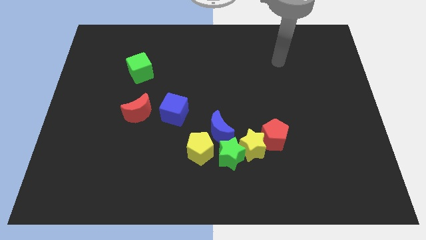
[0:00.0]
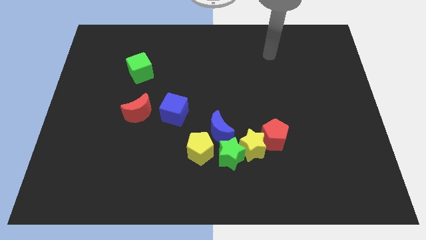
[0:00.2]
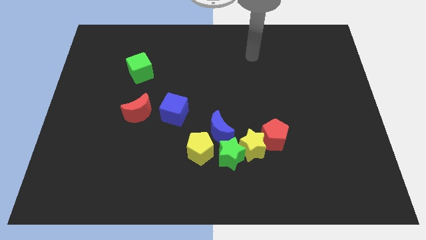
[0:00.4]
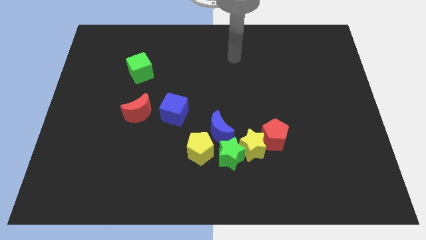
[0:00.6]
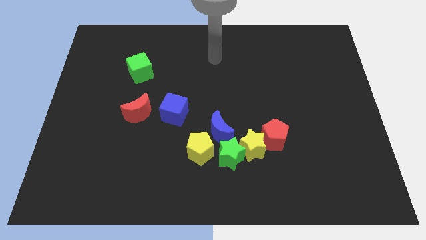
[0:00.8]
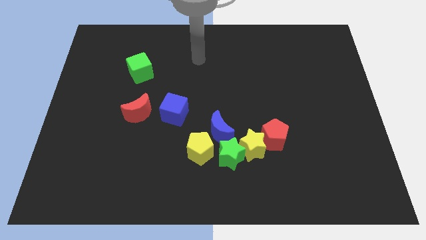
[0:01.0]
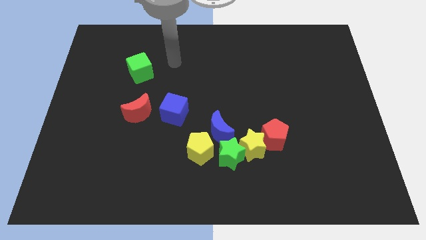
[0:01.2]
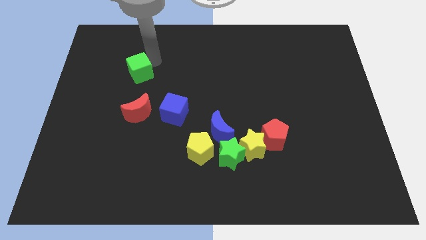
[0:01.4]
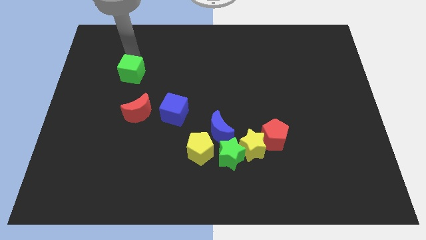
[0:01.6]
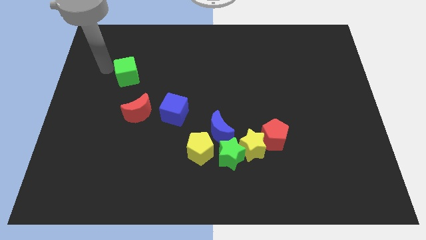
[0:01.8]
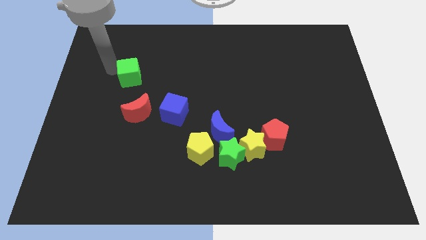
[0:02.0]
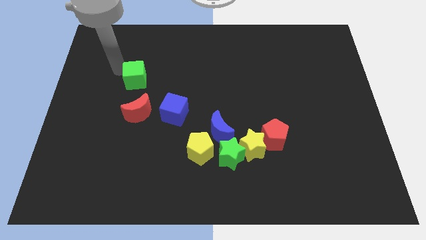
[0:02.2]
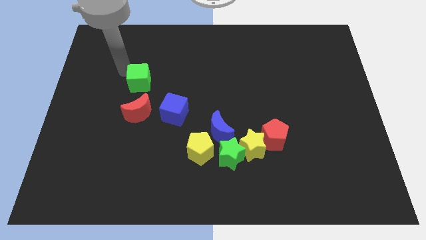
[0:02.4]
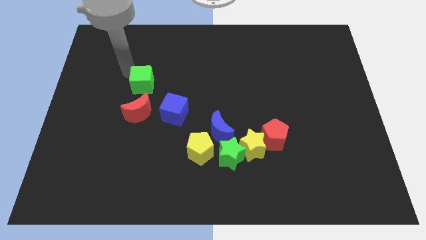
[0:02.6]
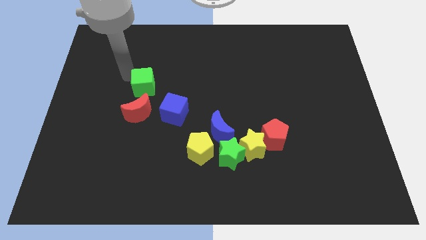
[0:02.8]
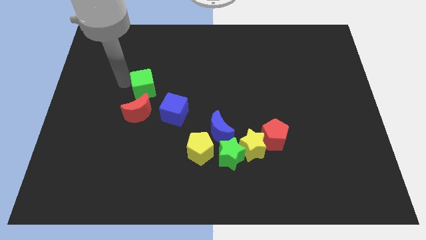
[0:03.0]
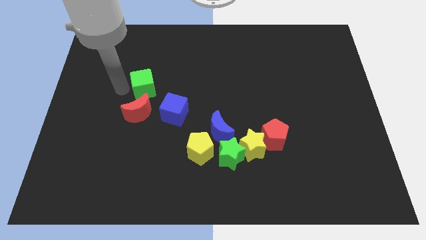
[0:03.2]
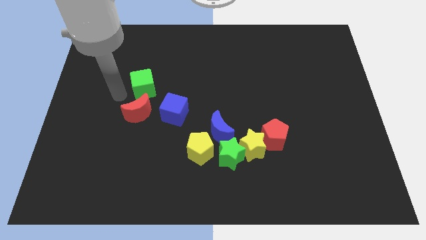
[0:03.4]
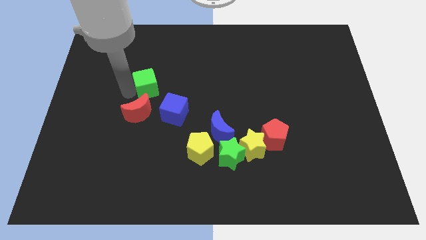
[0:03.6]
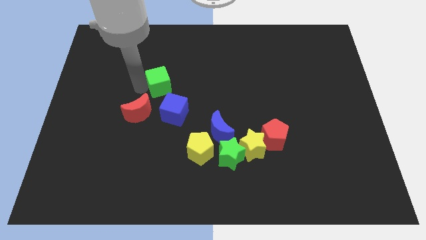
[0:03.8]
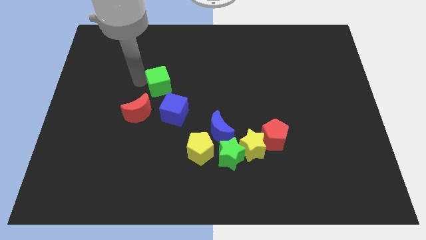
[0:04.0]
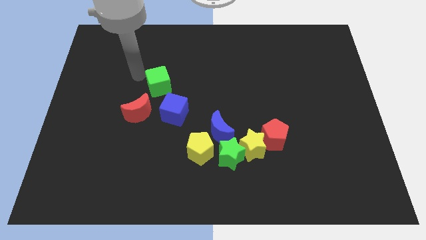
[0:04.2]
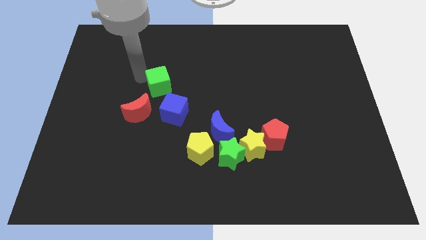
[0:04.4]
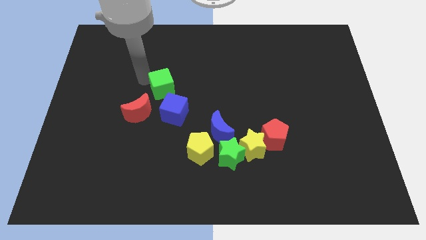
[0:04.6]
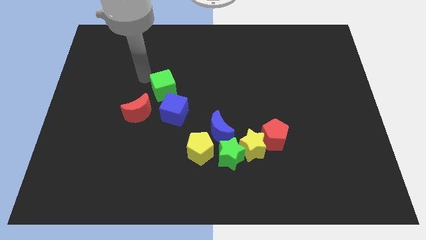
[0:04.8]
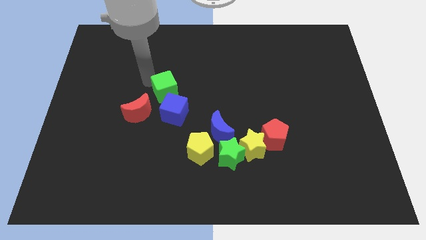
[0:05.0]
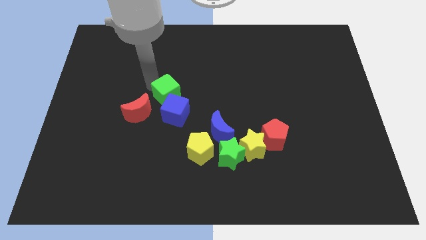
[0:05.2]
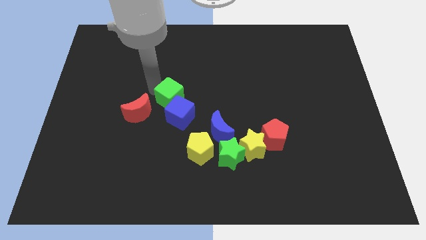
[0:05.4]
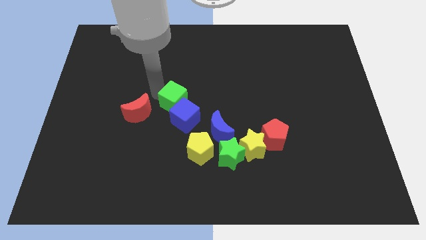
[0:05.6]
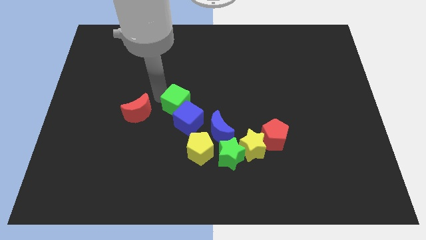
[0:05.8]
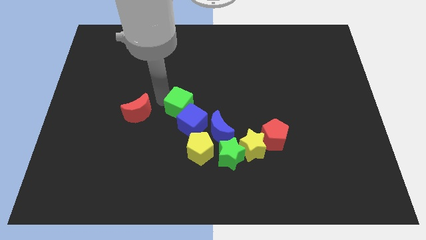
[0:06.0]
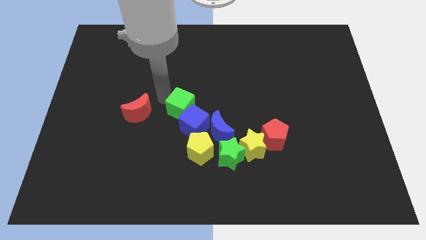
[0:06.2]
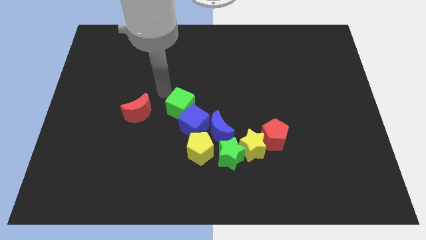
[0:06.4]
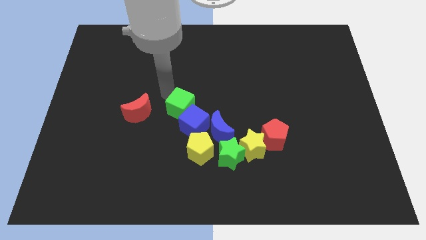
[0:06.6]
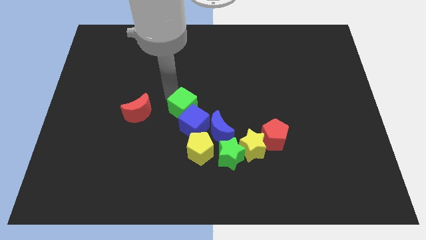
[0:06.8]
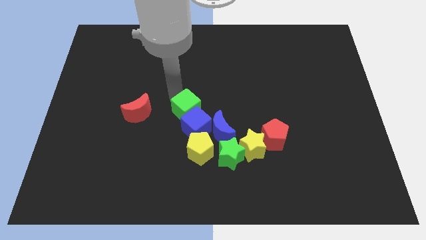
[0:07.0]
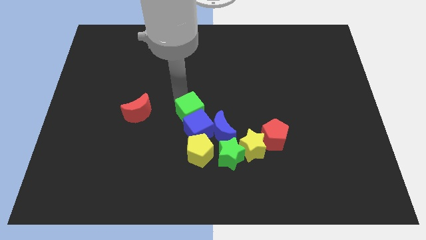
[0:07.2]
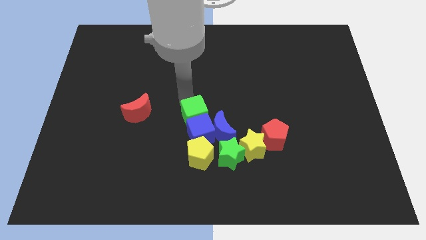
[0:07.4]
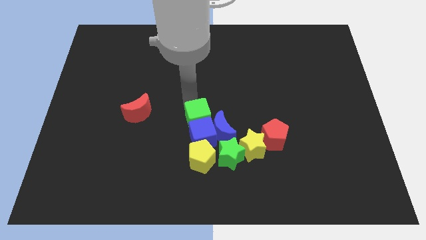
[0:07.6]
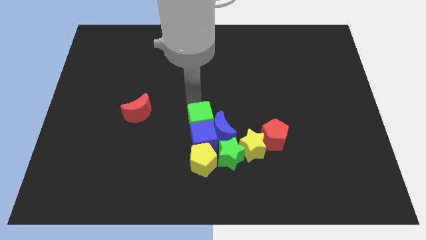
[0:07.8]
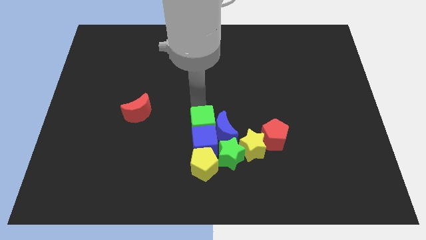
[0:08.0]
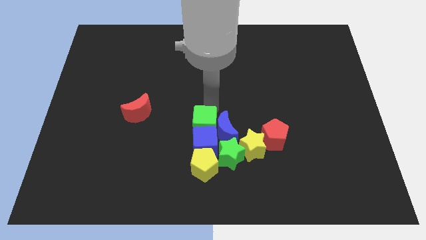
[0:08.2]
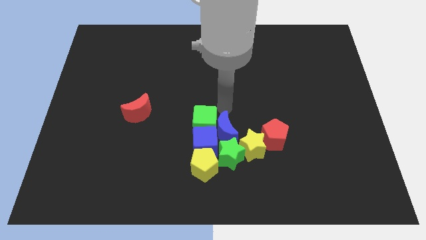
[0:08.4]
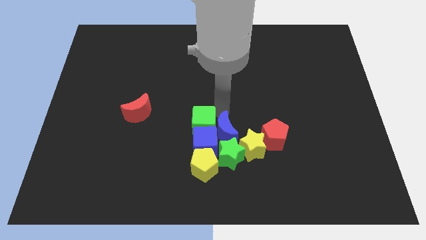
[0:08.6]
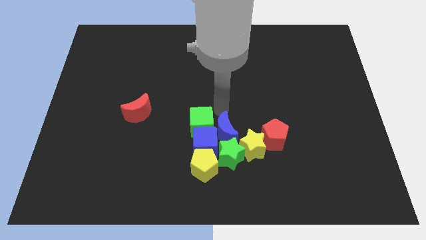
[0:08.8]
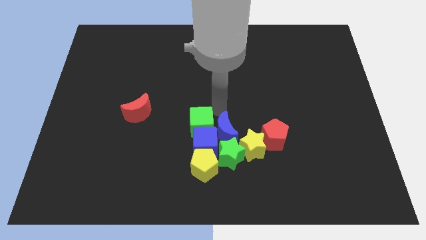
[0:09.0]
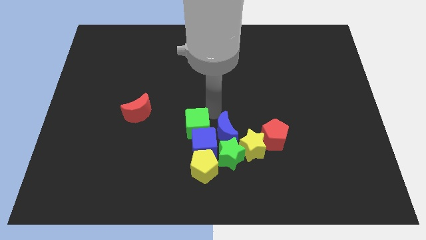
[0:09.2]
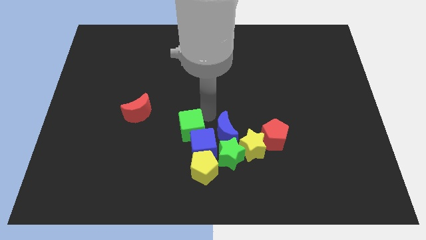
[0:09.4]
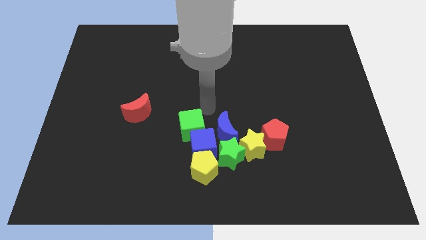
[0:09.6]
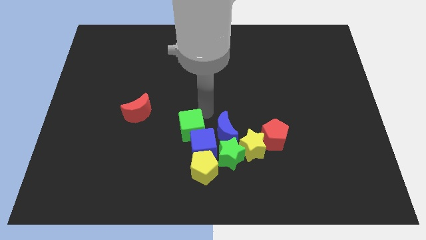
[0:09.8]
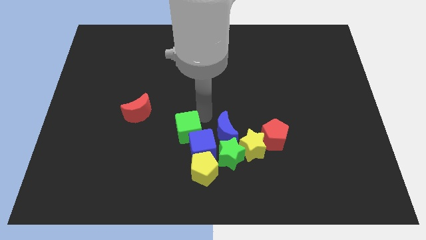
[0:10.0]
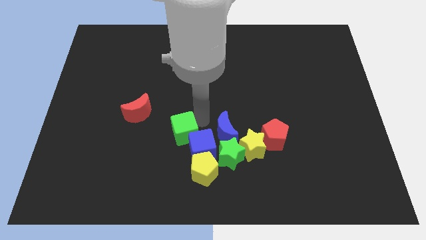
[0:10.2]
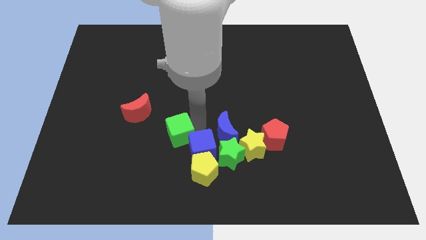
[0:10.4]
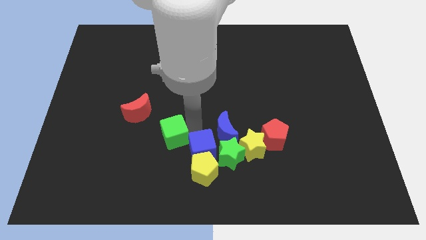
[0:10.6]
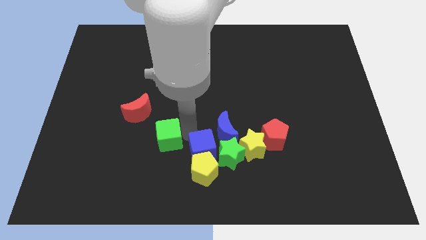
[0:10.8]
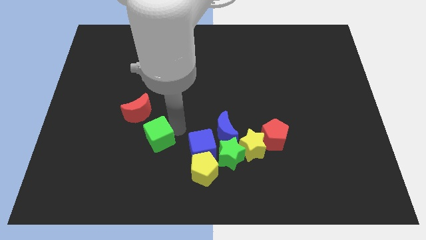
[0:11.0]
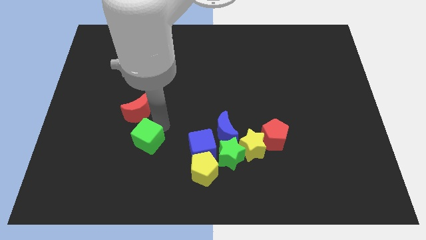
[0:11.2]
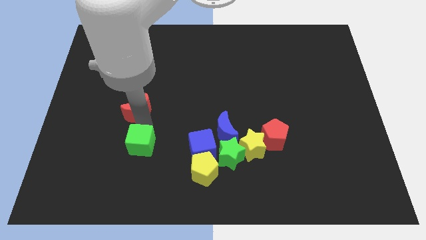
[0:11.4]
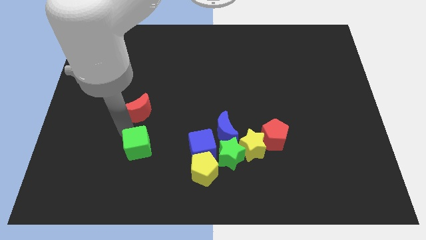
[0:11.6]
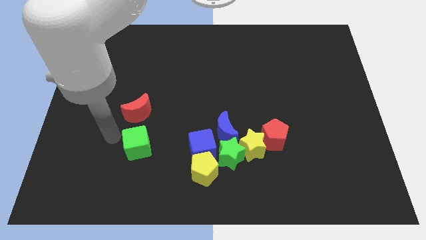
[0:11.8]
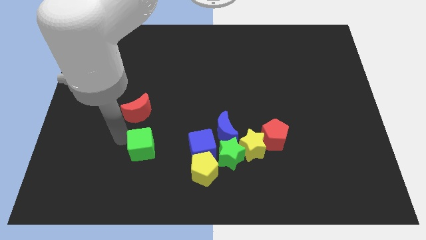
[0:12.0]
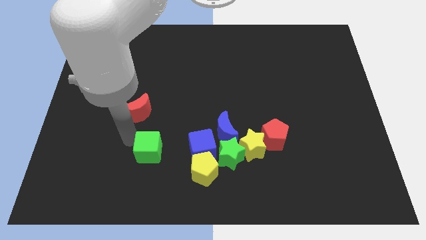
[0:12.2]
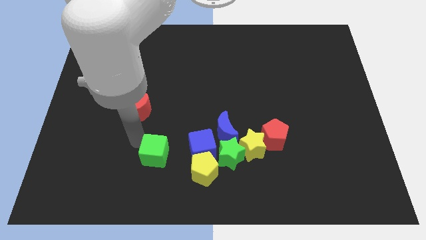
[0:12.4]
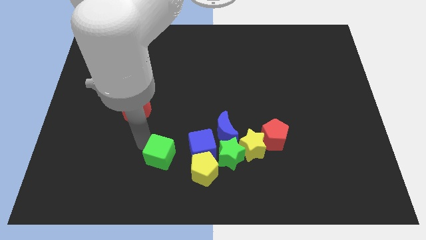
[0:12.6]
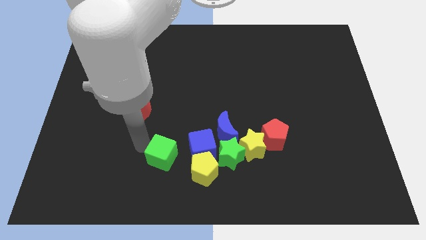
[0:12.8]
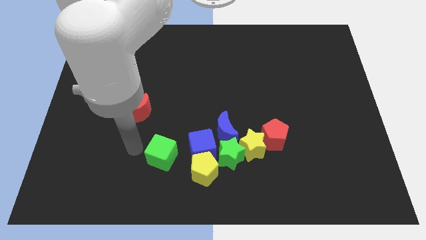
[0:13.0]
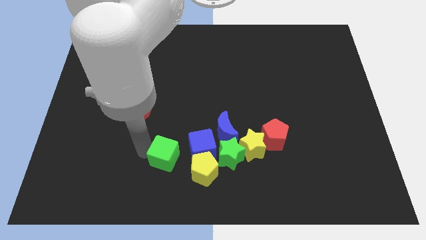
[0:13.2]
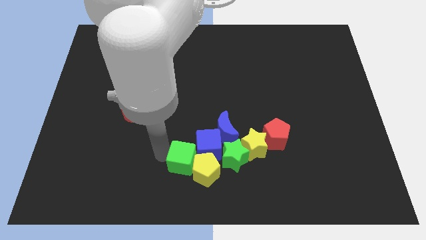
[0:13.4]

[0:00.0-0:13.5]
put the green cube to the bottom

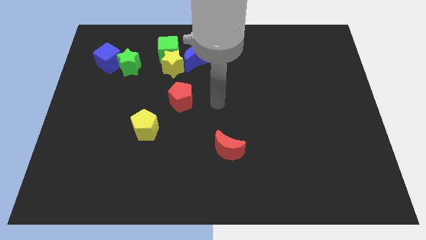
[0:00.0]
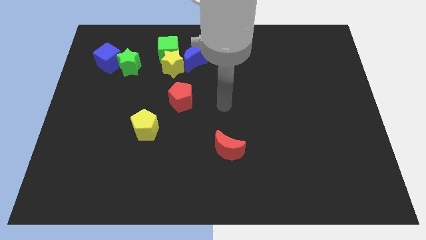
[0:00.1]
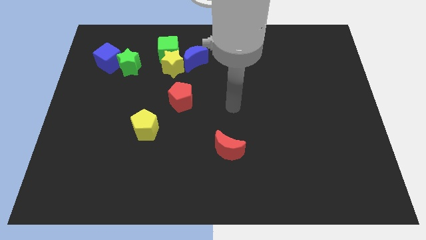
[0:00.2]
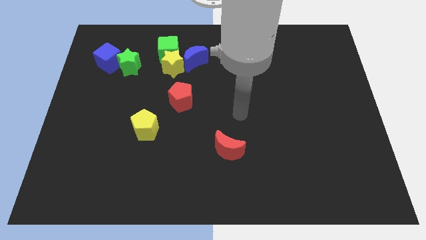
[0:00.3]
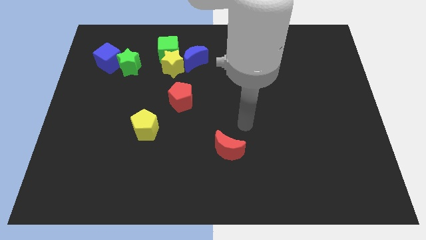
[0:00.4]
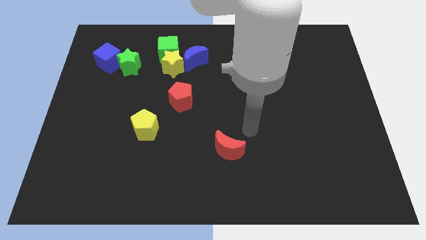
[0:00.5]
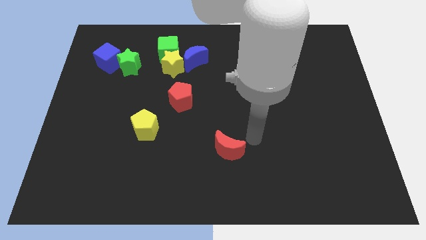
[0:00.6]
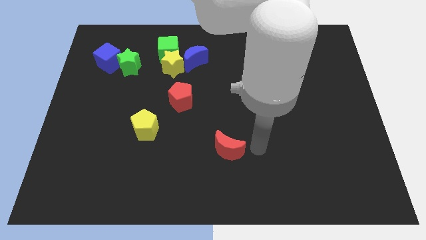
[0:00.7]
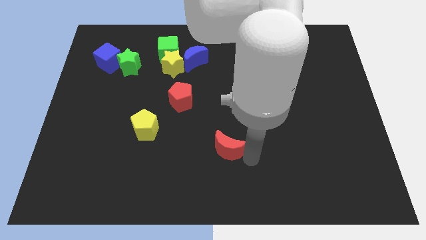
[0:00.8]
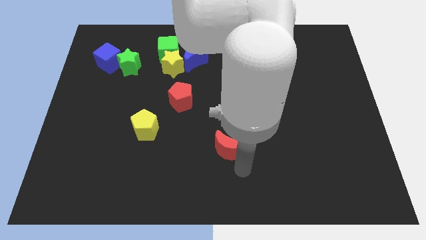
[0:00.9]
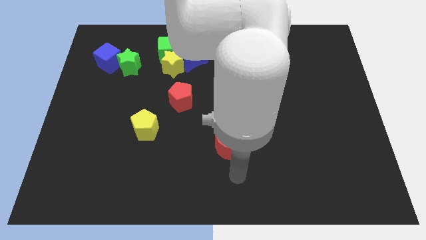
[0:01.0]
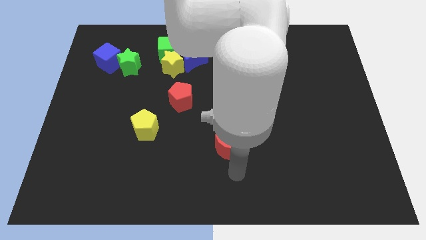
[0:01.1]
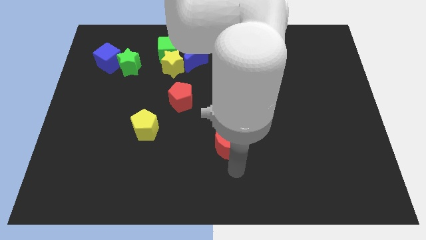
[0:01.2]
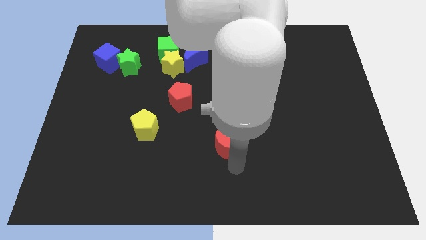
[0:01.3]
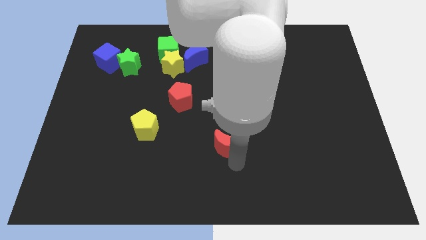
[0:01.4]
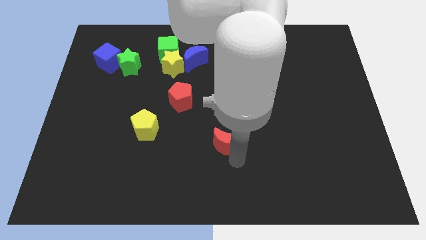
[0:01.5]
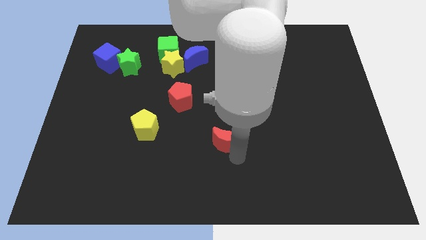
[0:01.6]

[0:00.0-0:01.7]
move the red moon to the center of the board
